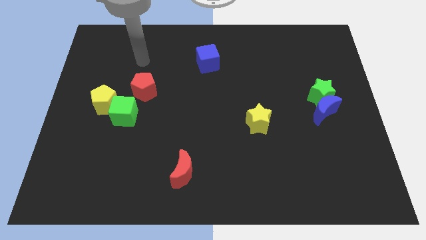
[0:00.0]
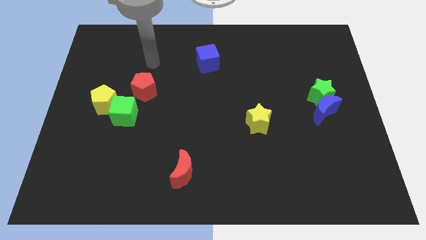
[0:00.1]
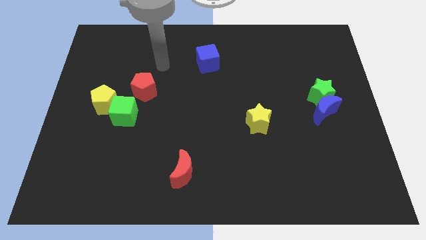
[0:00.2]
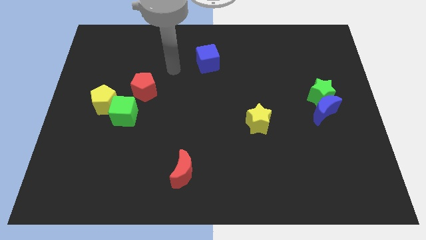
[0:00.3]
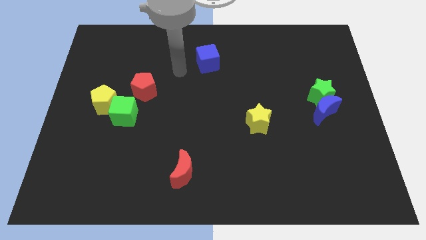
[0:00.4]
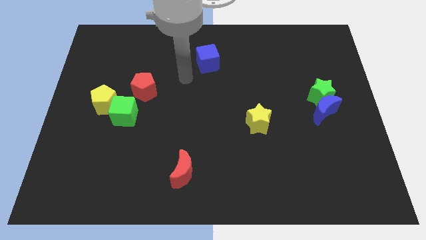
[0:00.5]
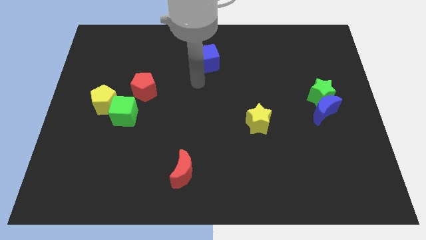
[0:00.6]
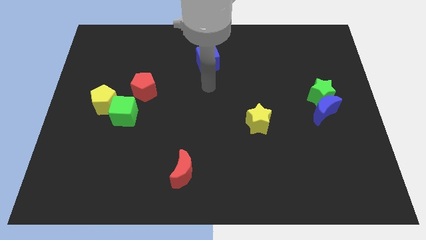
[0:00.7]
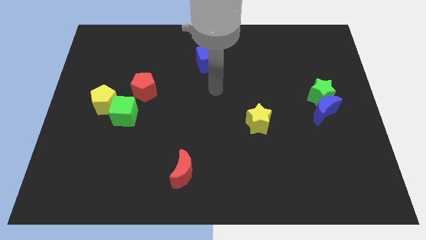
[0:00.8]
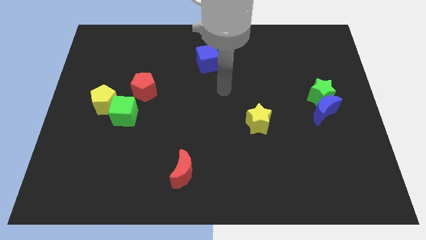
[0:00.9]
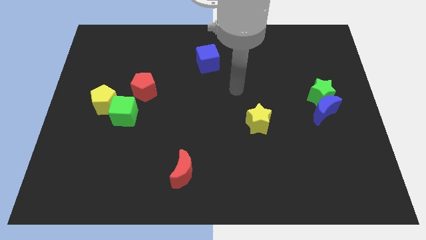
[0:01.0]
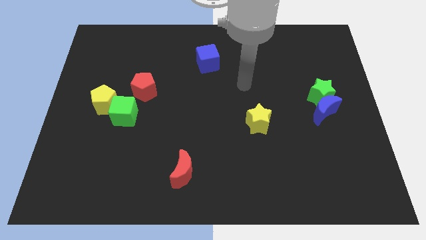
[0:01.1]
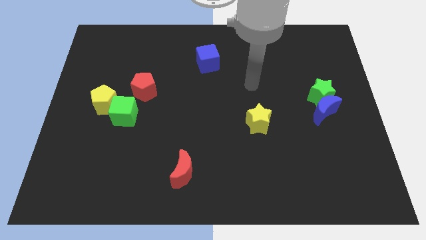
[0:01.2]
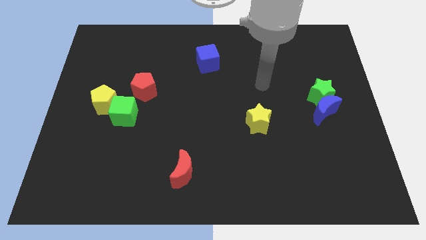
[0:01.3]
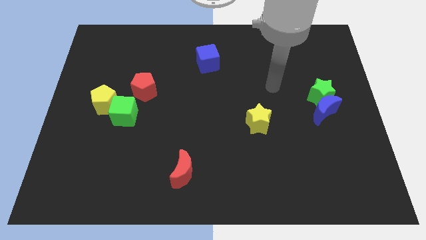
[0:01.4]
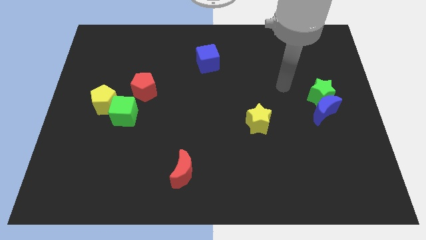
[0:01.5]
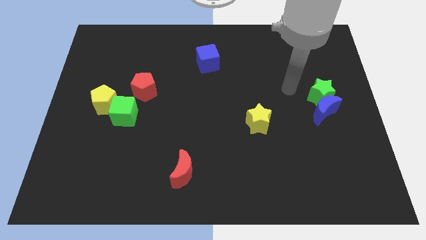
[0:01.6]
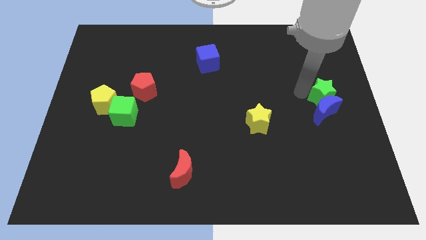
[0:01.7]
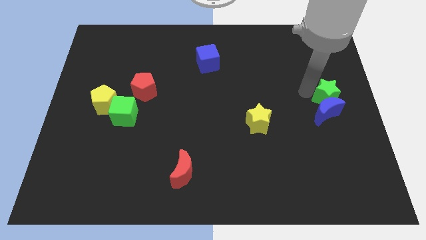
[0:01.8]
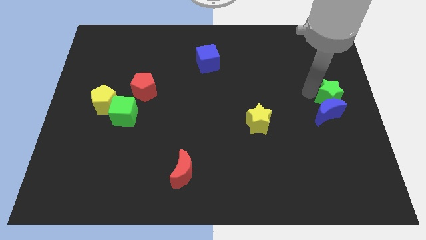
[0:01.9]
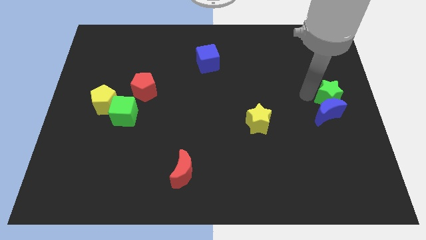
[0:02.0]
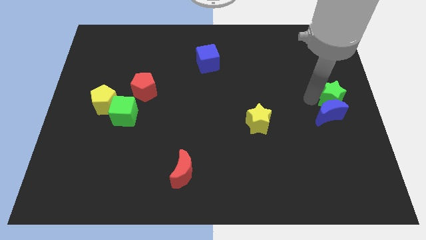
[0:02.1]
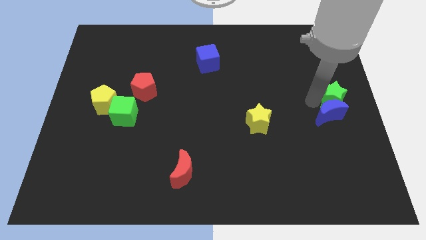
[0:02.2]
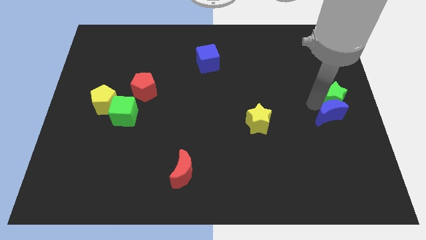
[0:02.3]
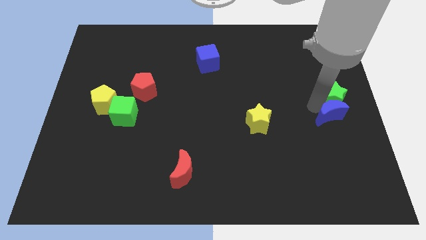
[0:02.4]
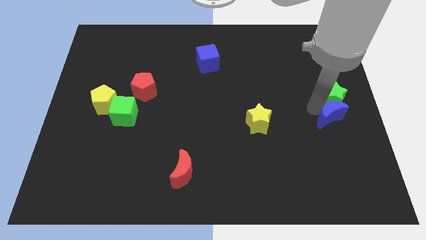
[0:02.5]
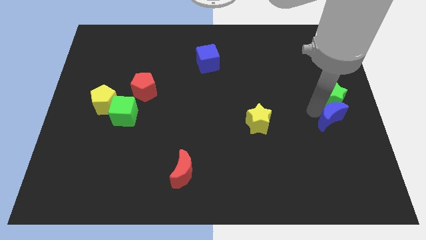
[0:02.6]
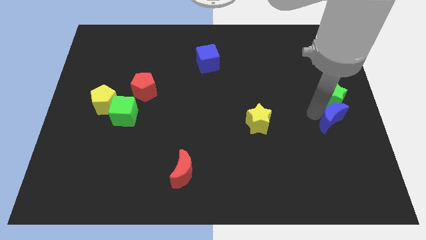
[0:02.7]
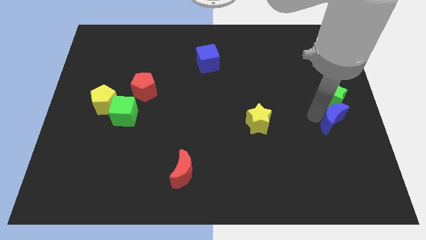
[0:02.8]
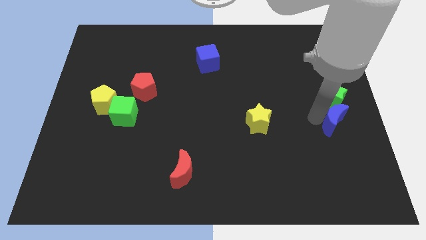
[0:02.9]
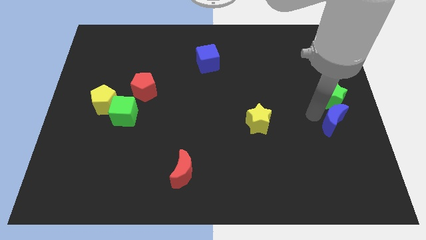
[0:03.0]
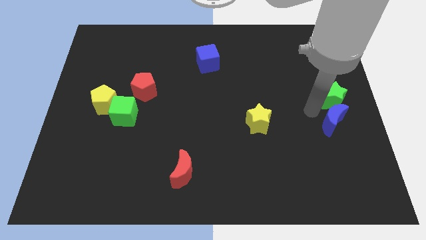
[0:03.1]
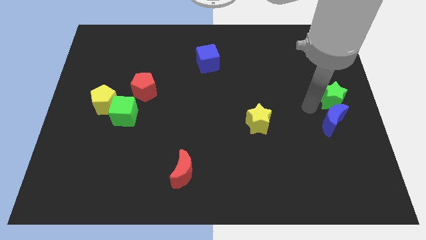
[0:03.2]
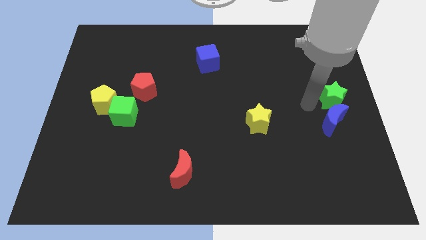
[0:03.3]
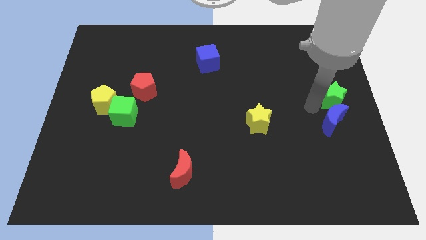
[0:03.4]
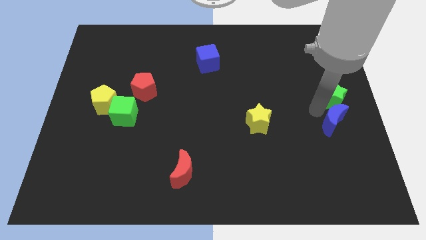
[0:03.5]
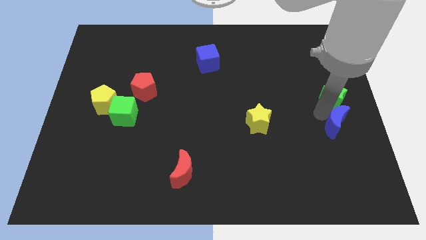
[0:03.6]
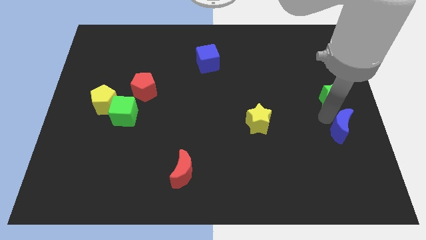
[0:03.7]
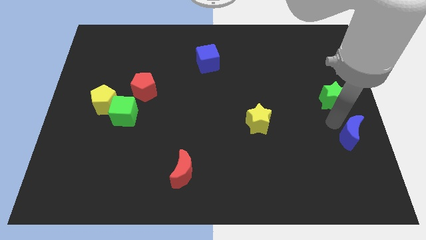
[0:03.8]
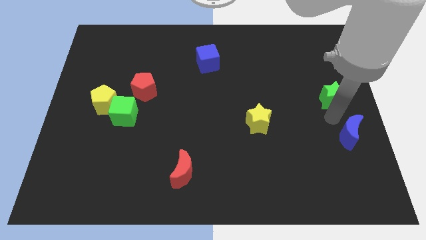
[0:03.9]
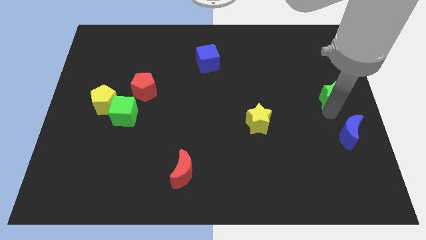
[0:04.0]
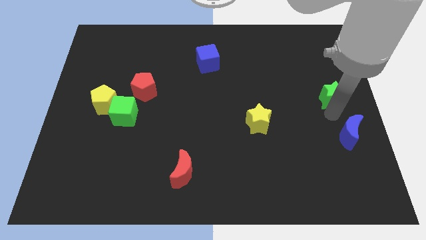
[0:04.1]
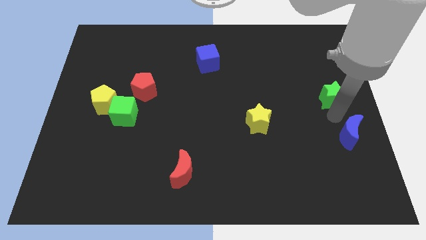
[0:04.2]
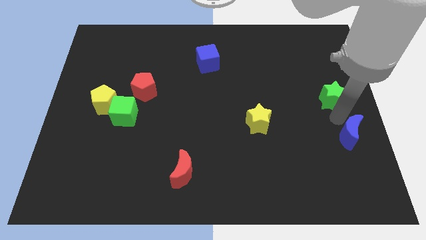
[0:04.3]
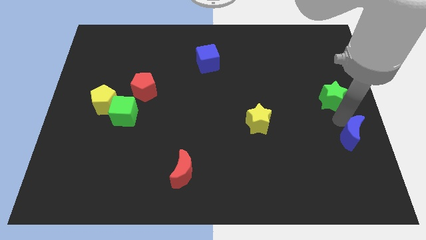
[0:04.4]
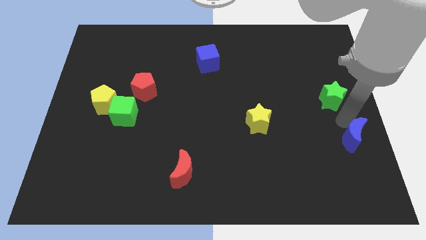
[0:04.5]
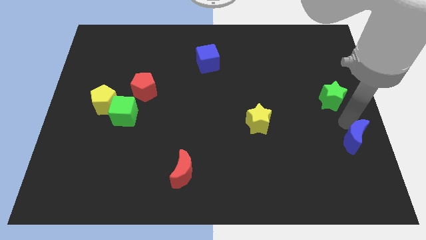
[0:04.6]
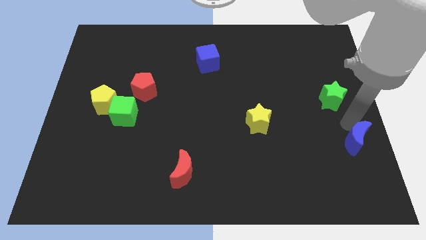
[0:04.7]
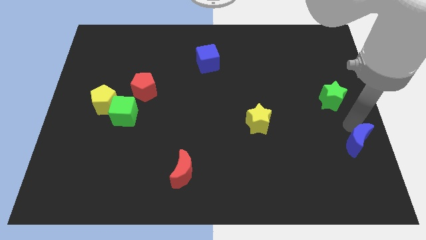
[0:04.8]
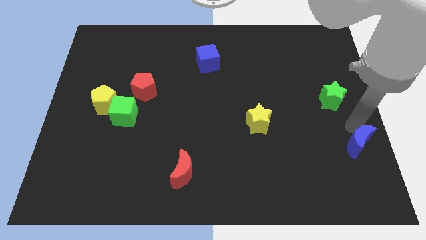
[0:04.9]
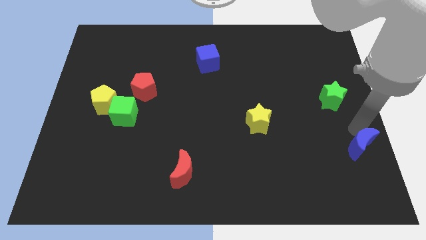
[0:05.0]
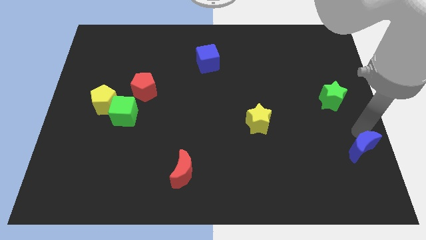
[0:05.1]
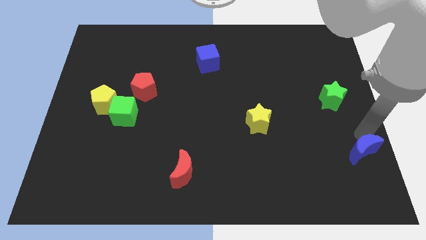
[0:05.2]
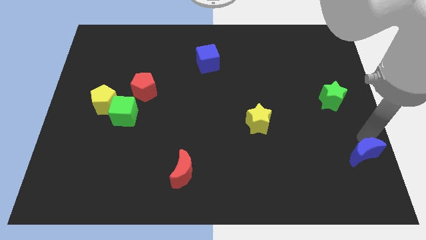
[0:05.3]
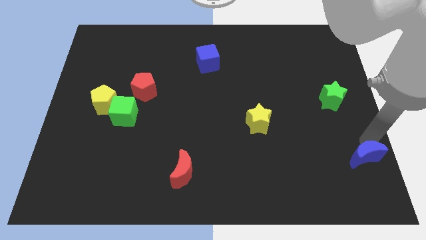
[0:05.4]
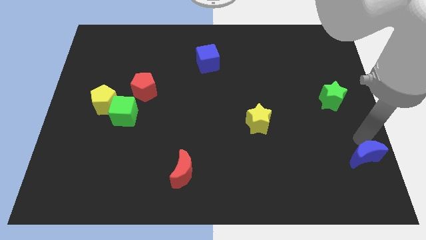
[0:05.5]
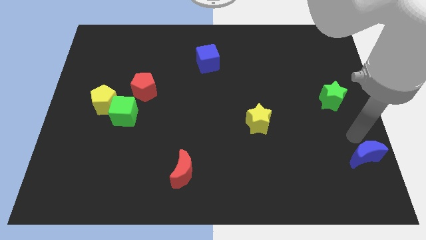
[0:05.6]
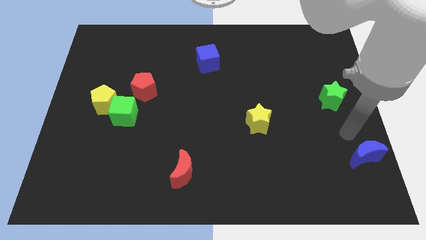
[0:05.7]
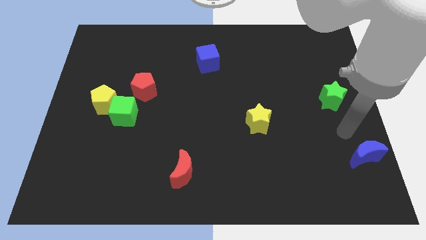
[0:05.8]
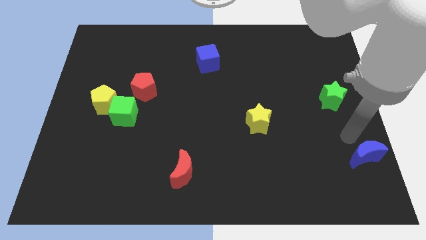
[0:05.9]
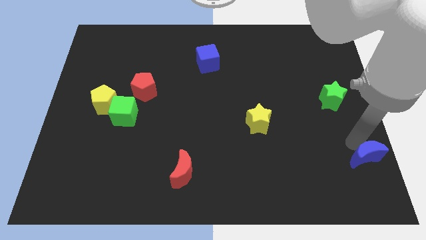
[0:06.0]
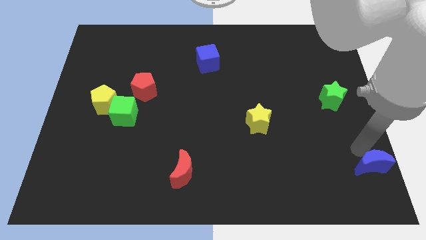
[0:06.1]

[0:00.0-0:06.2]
slide the blue moon to the bottom right of the board
